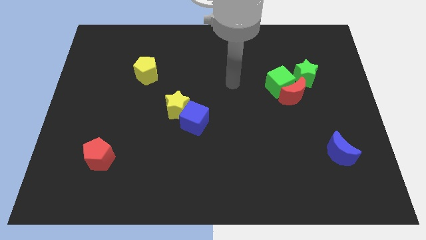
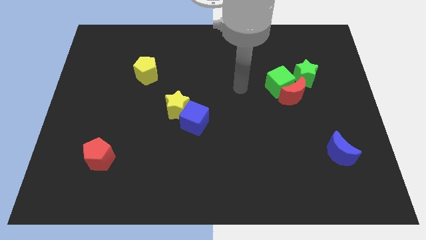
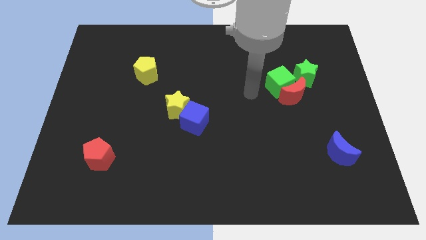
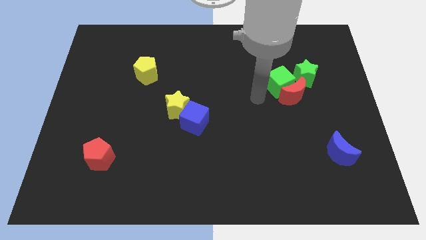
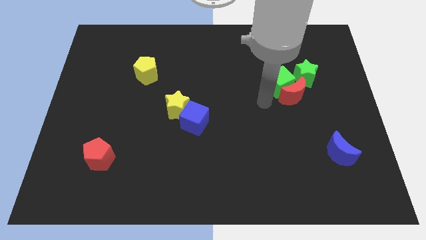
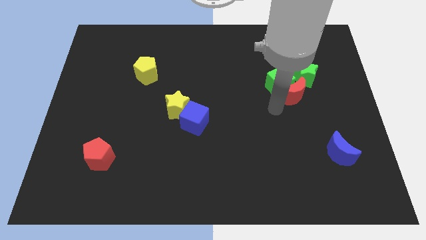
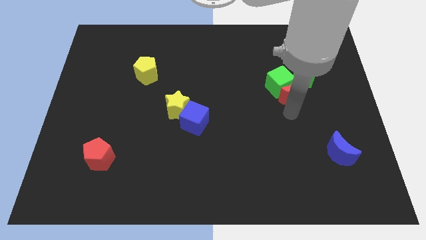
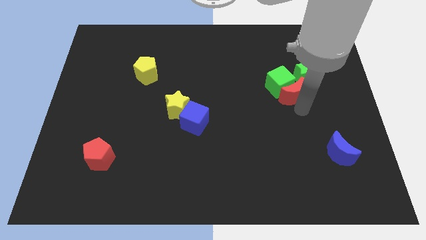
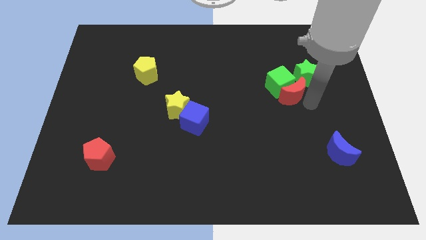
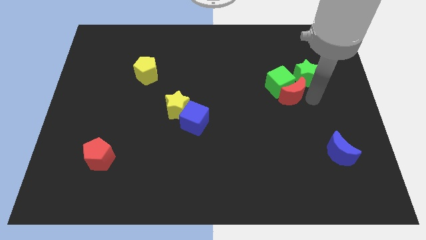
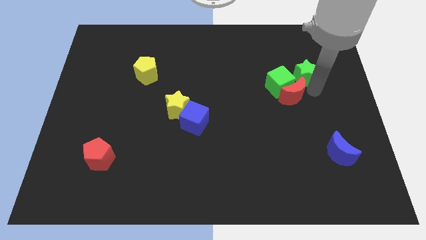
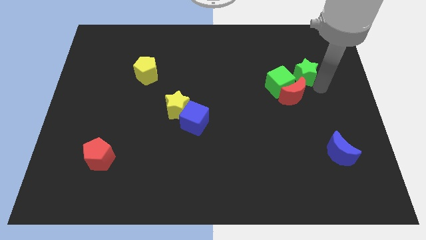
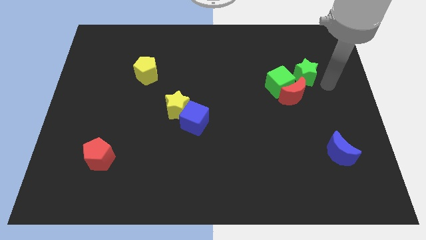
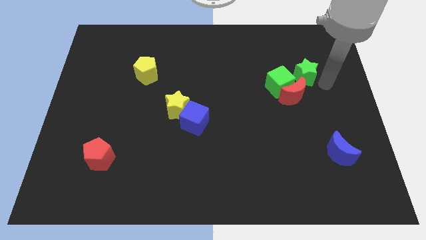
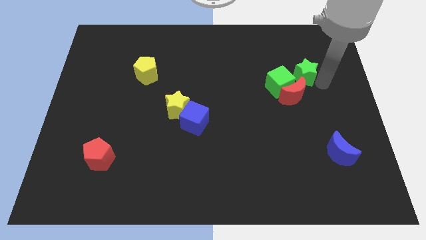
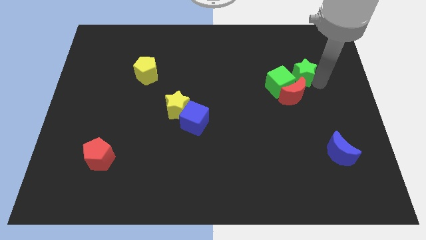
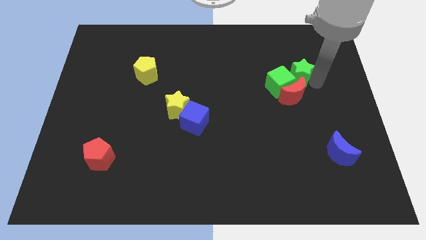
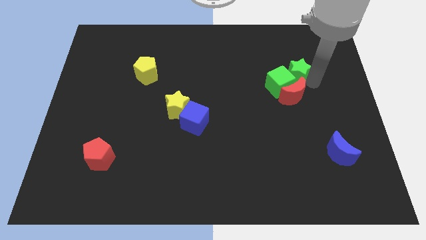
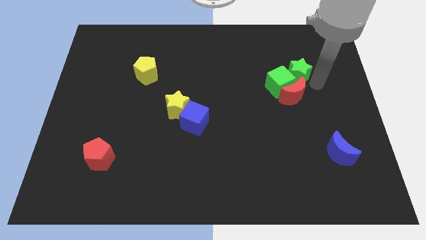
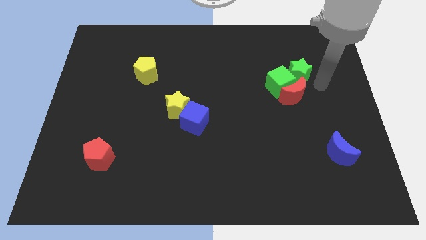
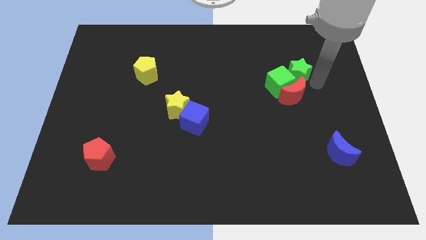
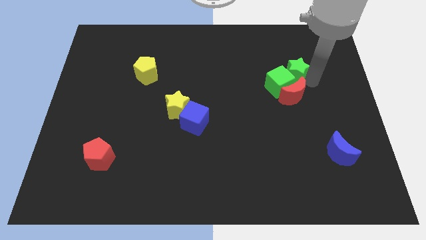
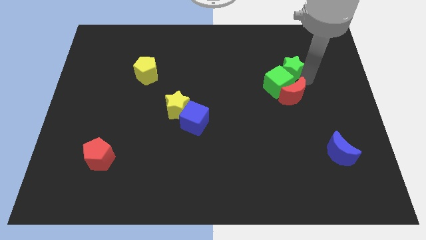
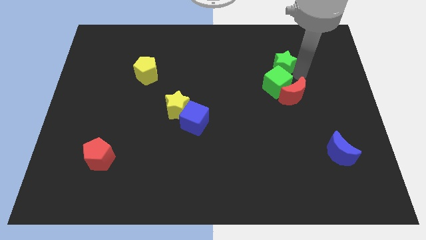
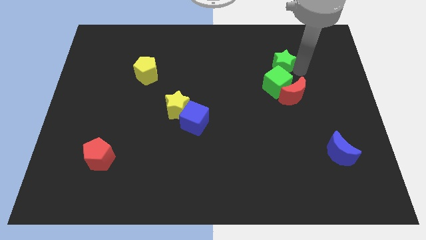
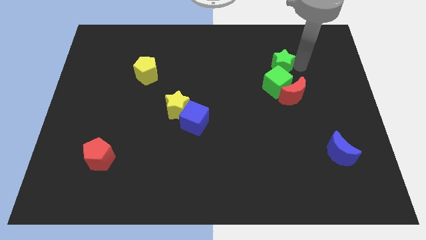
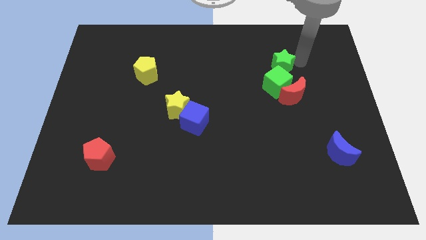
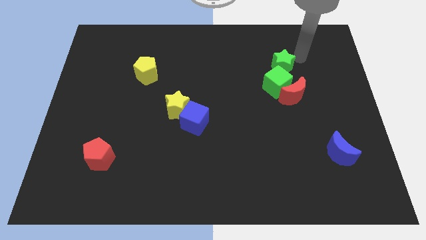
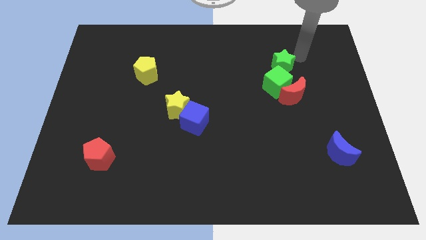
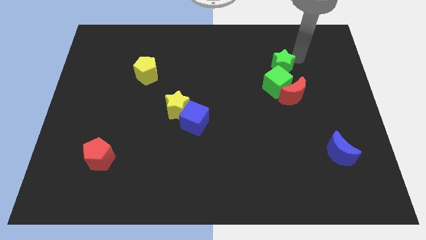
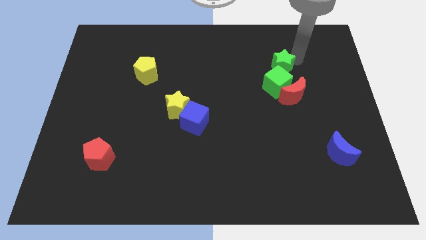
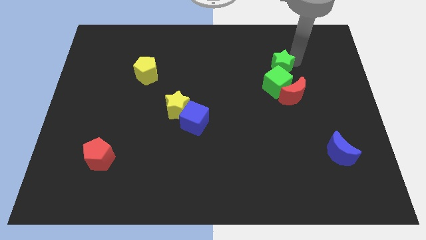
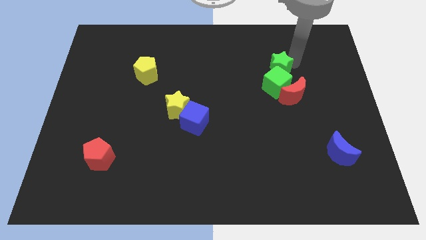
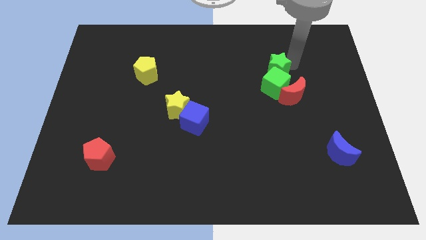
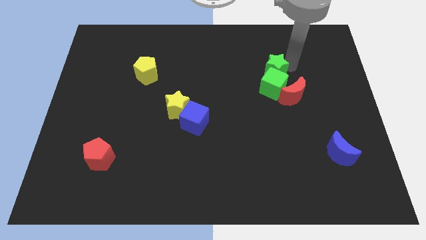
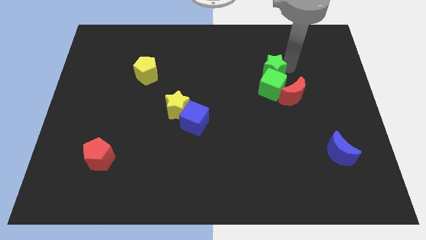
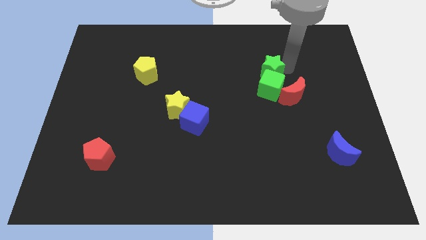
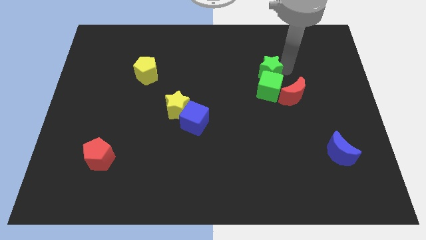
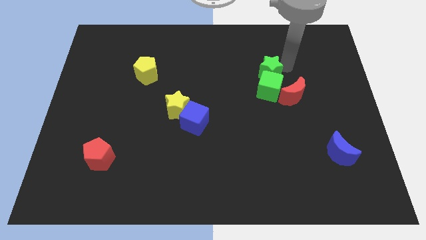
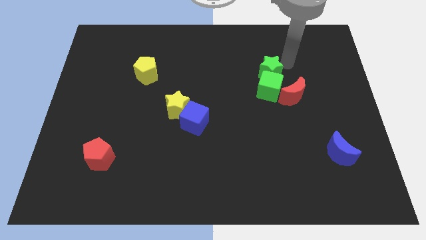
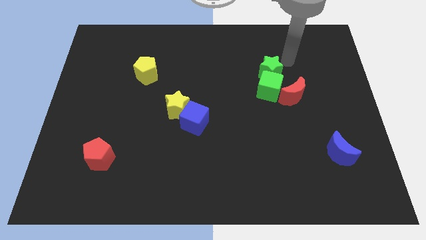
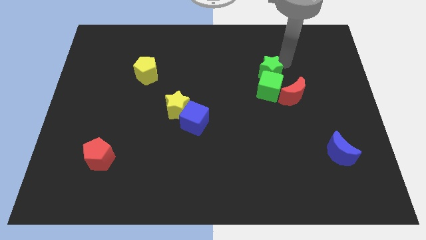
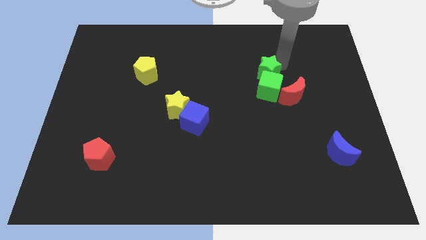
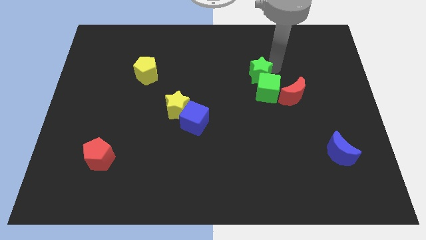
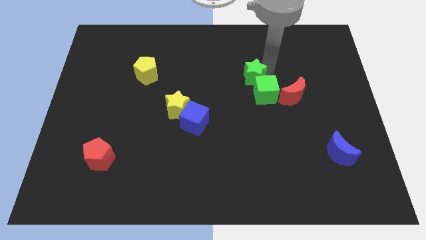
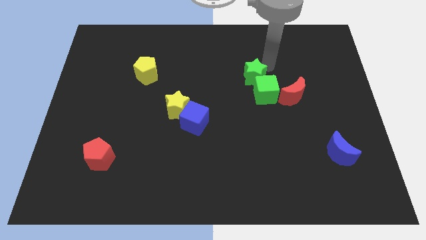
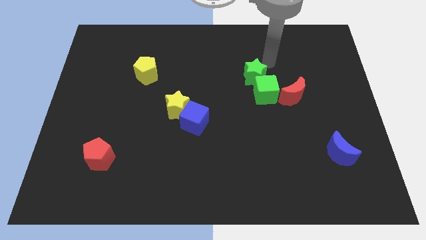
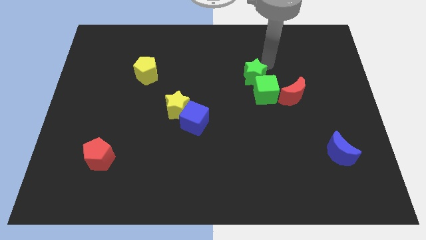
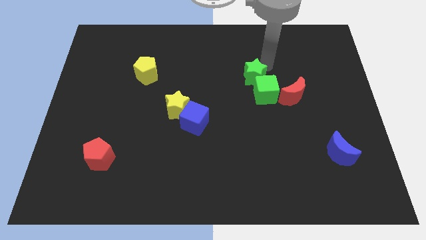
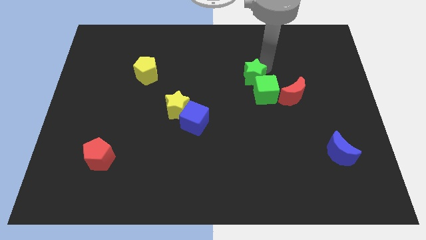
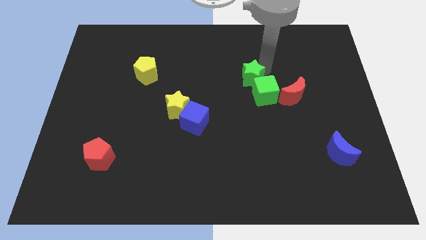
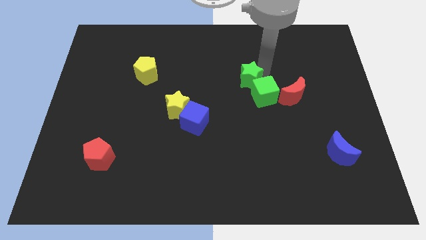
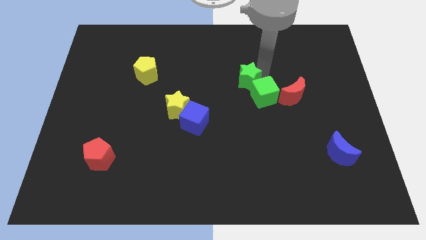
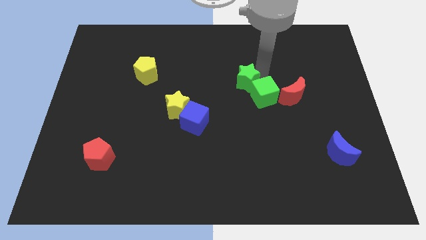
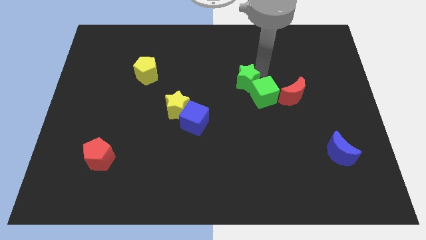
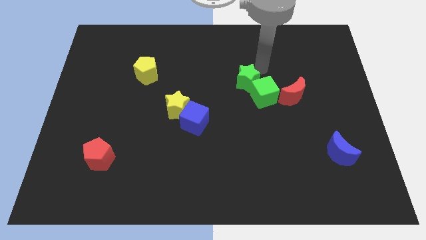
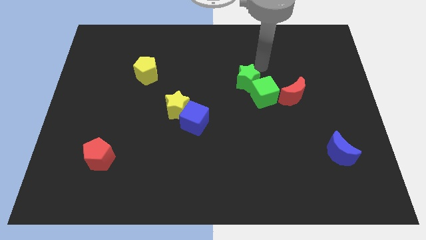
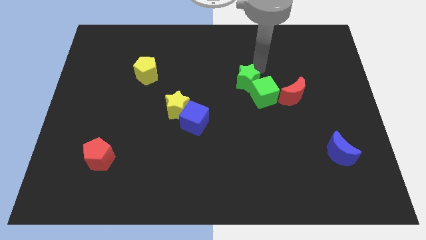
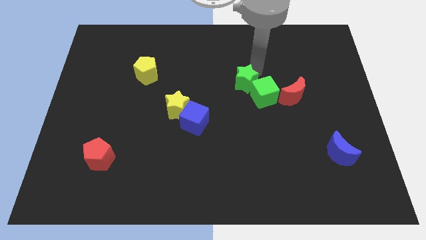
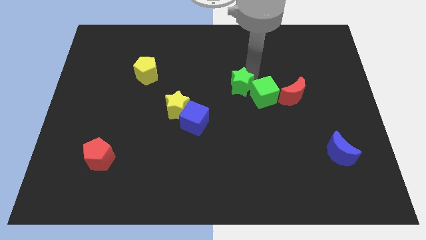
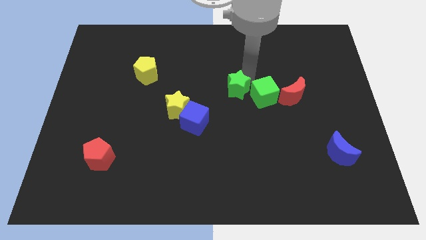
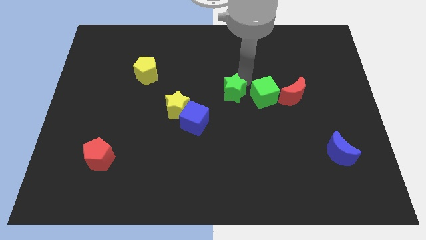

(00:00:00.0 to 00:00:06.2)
move the green star to the top right of the blue cube

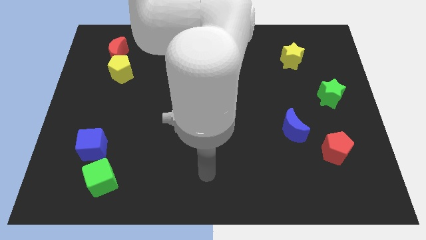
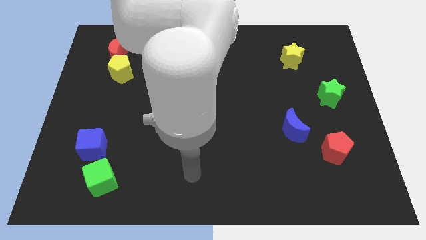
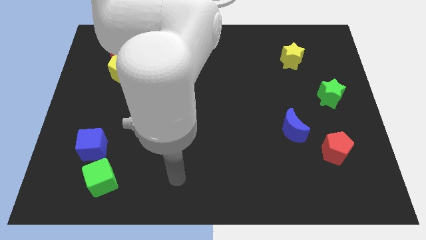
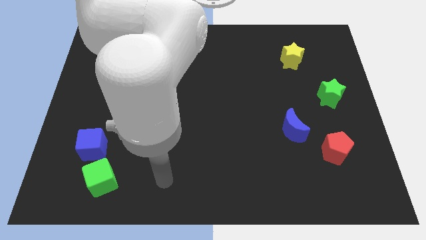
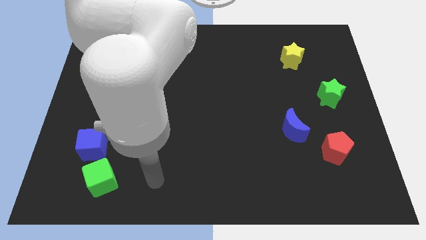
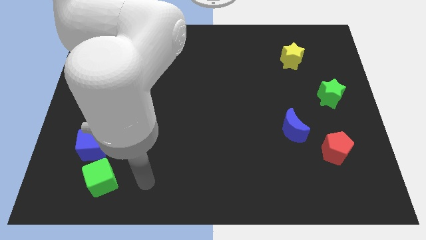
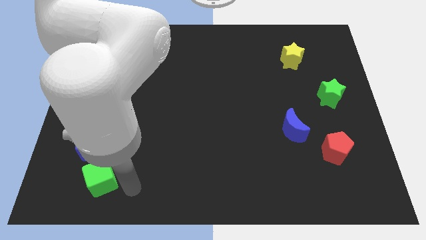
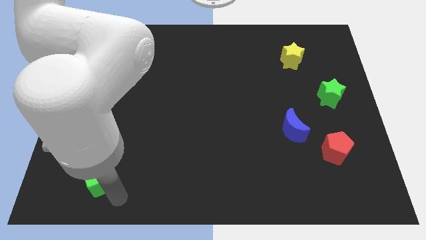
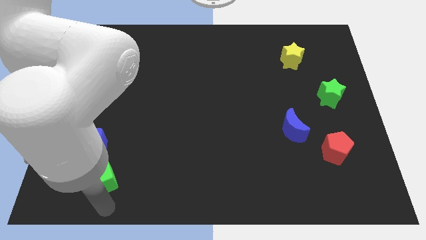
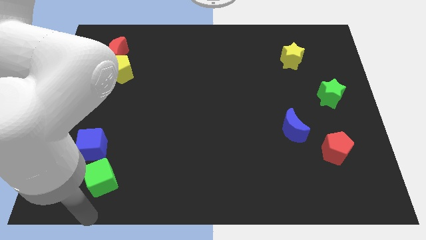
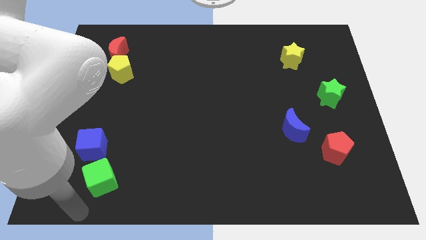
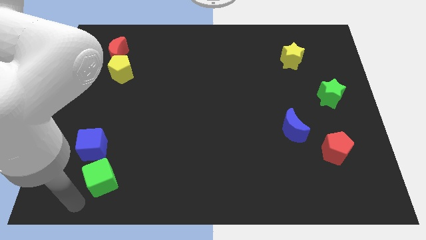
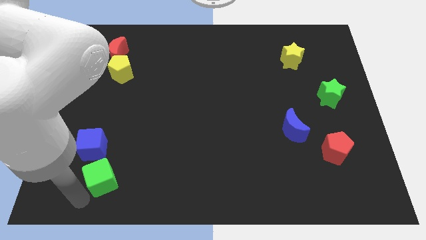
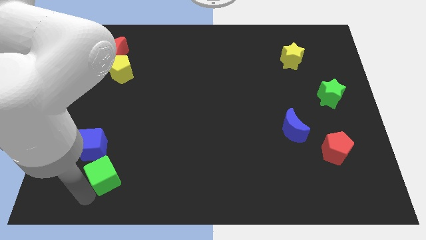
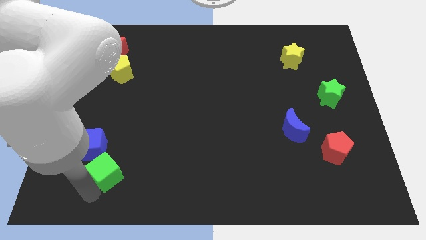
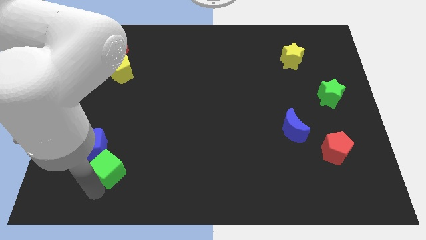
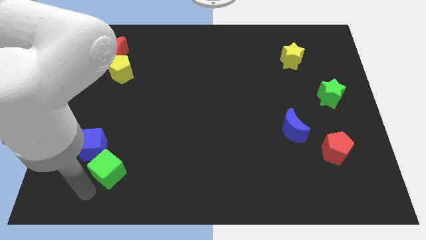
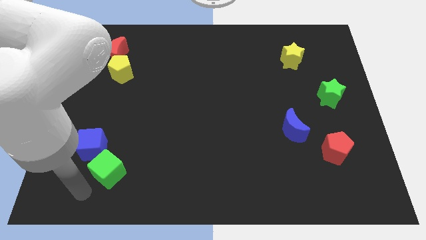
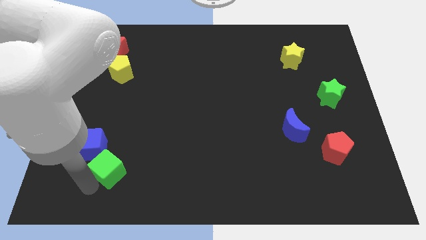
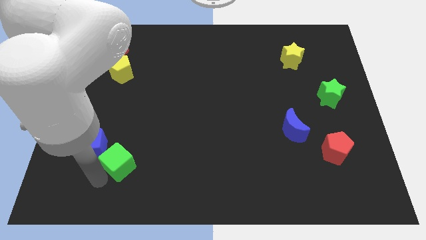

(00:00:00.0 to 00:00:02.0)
move the green cube right of the blue cube
